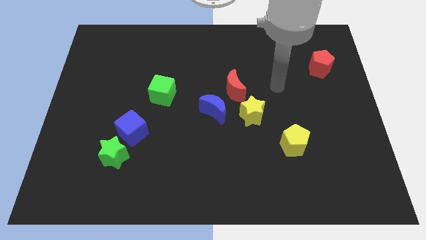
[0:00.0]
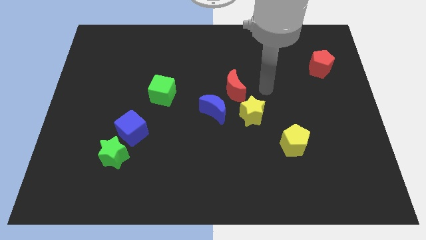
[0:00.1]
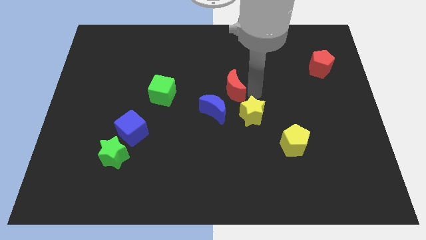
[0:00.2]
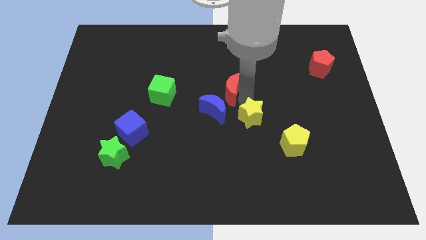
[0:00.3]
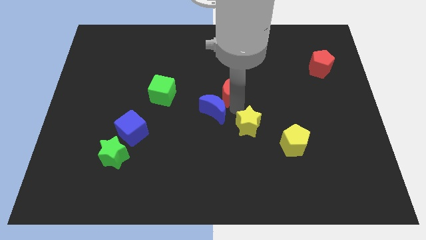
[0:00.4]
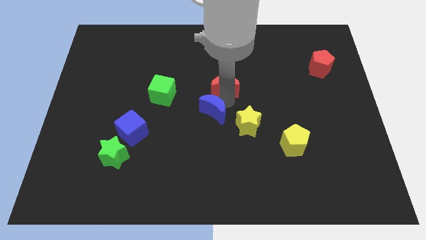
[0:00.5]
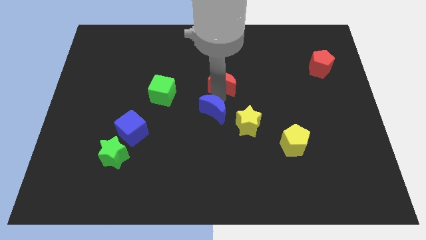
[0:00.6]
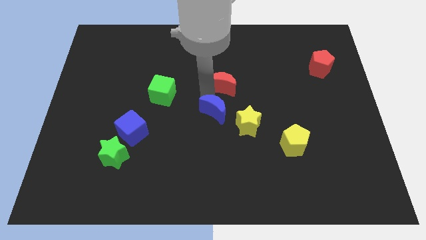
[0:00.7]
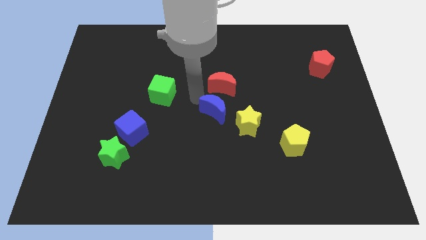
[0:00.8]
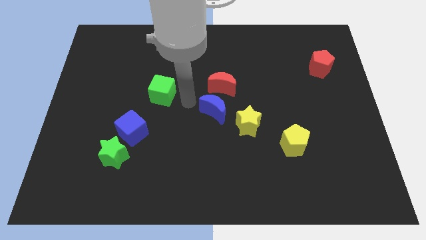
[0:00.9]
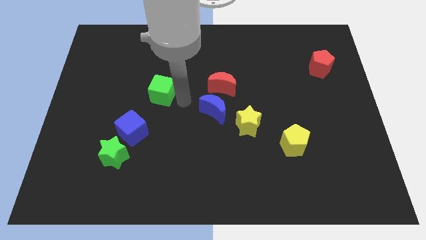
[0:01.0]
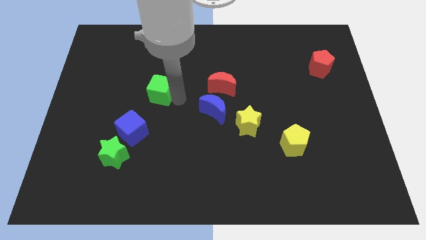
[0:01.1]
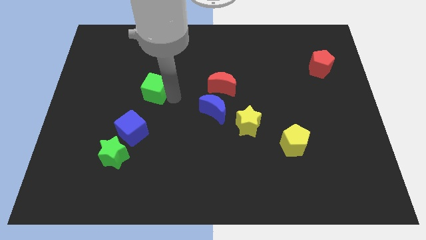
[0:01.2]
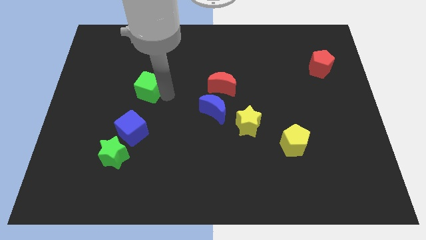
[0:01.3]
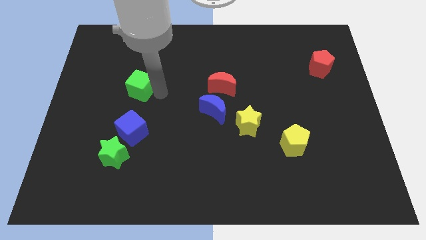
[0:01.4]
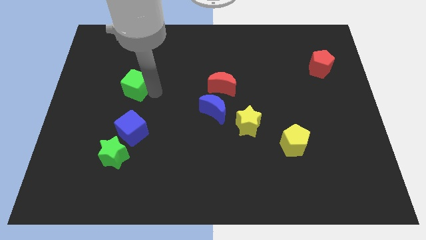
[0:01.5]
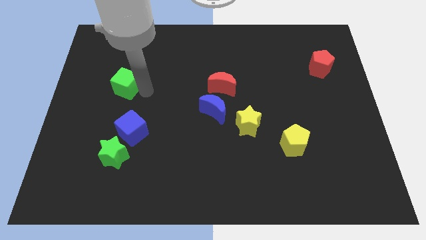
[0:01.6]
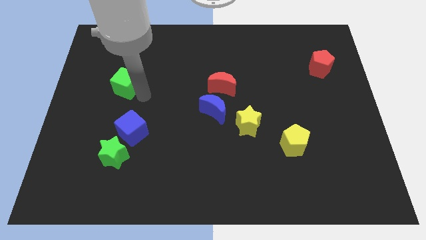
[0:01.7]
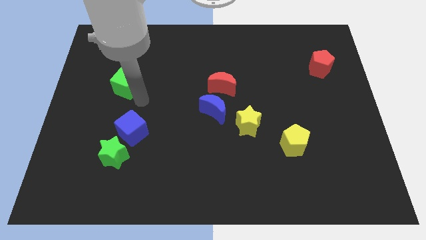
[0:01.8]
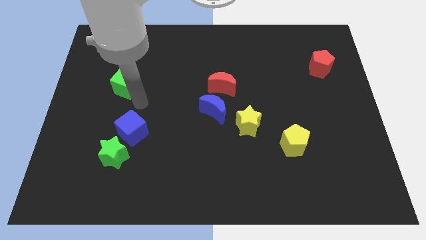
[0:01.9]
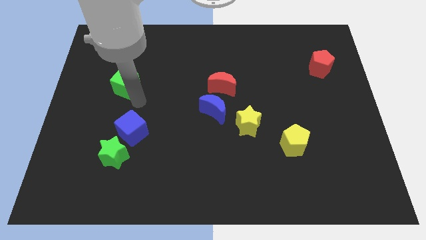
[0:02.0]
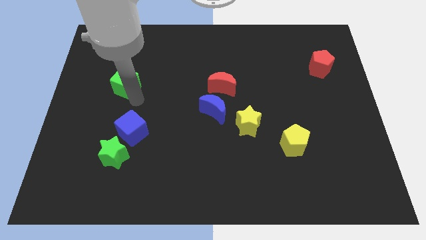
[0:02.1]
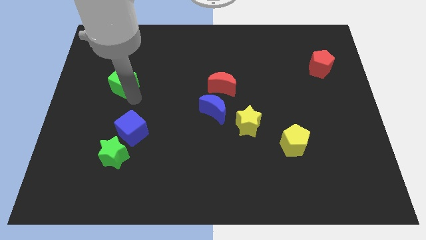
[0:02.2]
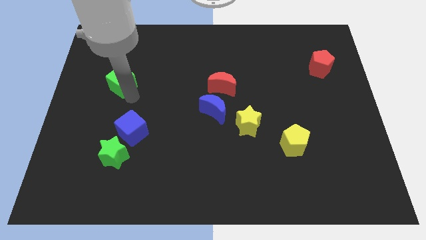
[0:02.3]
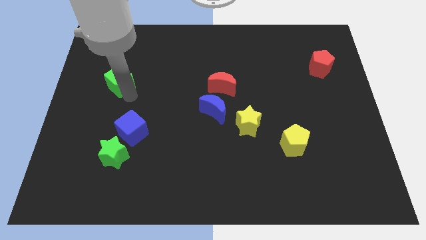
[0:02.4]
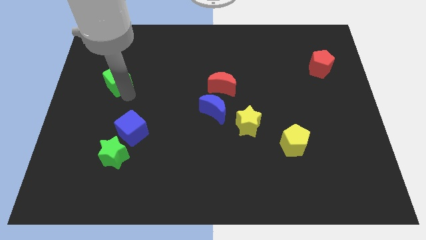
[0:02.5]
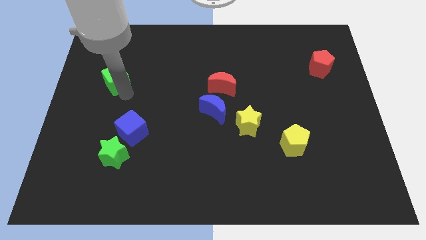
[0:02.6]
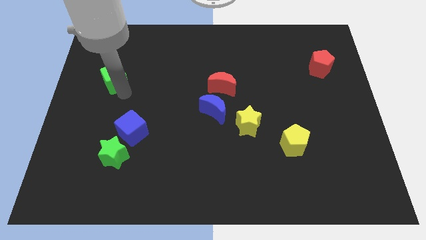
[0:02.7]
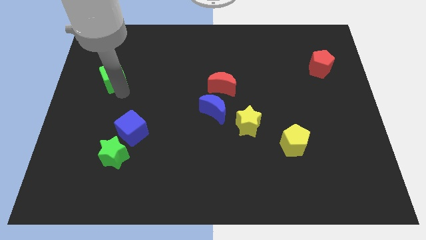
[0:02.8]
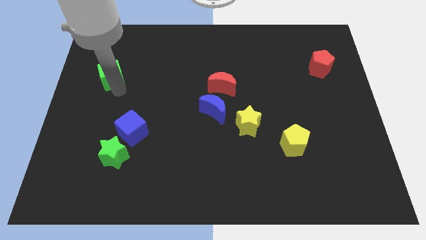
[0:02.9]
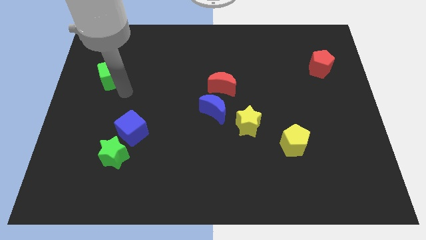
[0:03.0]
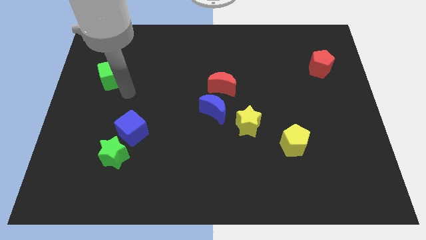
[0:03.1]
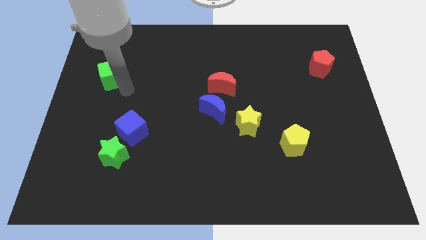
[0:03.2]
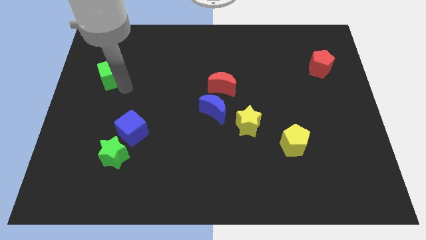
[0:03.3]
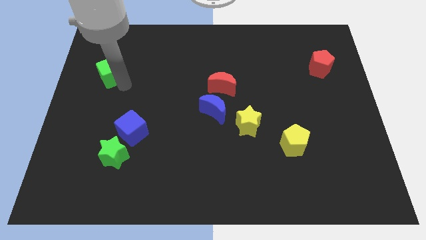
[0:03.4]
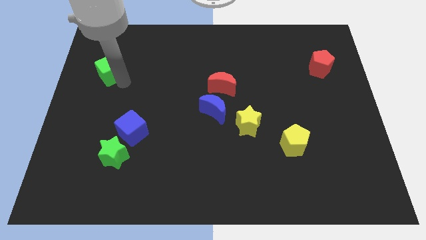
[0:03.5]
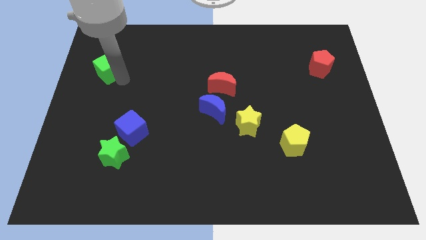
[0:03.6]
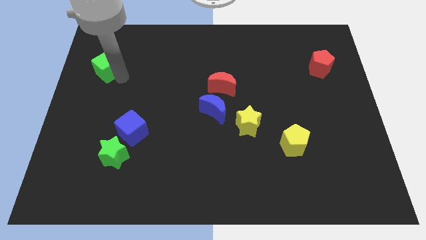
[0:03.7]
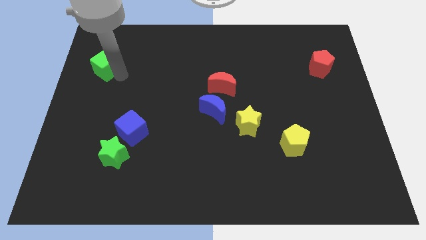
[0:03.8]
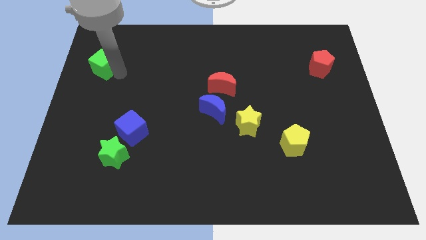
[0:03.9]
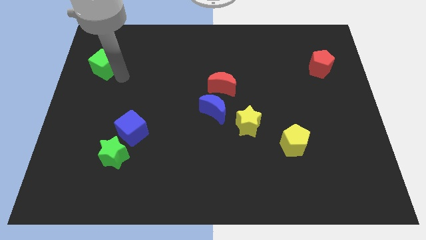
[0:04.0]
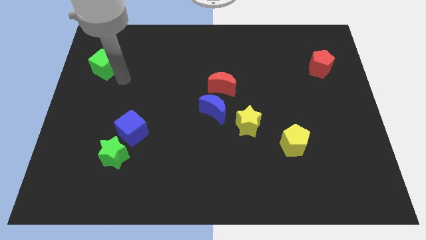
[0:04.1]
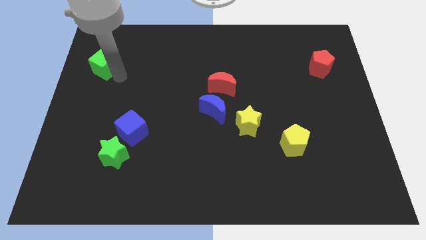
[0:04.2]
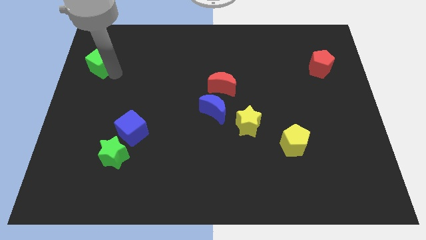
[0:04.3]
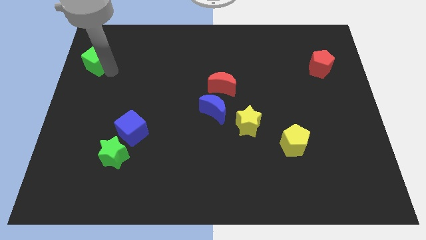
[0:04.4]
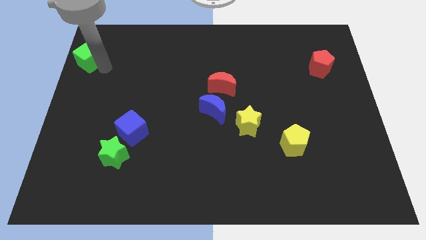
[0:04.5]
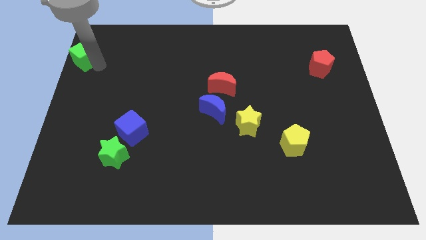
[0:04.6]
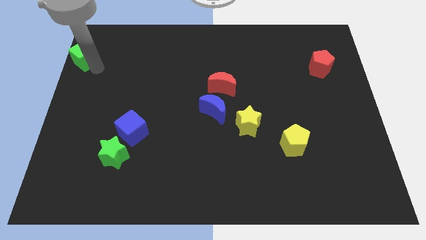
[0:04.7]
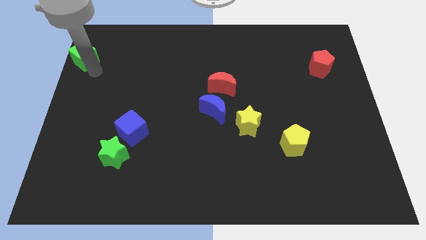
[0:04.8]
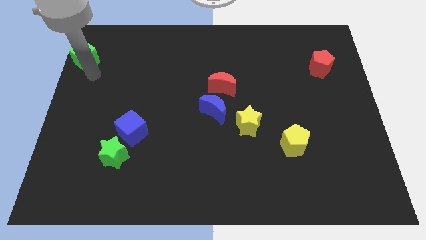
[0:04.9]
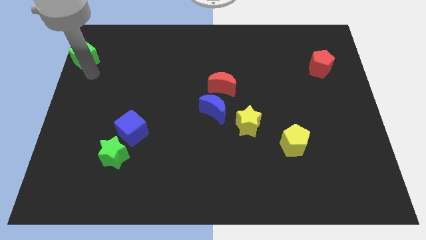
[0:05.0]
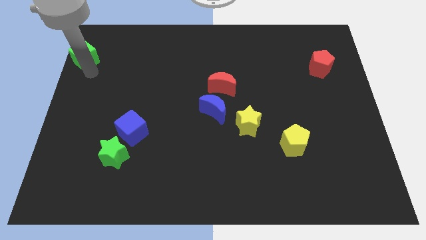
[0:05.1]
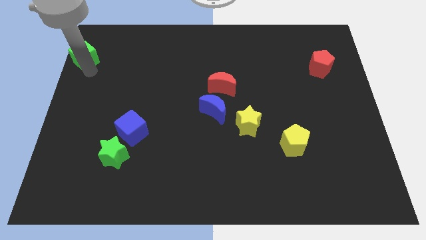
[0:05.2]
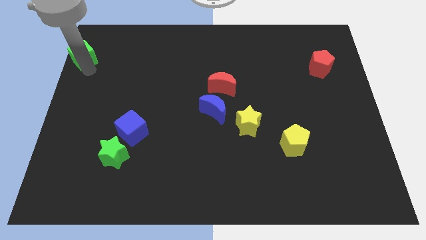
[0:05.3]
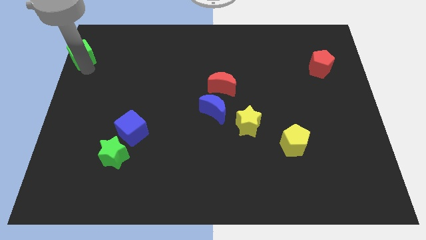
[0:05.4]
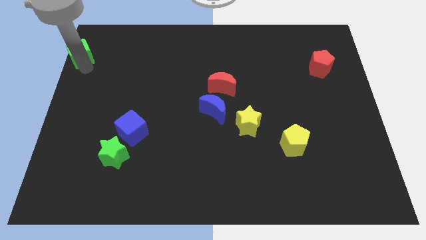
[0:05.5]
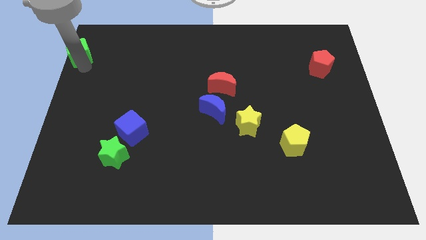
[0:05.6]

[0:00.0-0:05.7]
push the green cube to the top left

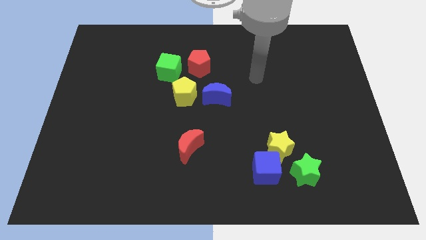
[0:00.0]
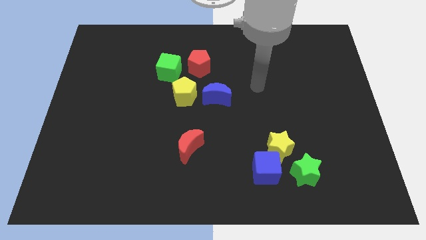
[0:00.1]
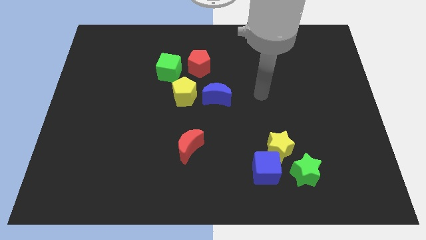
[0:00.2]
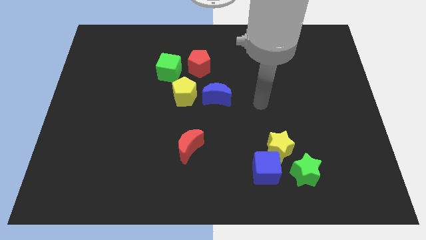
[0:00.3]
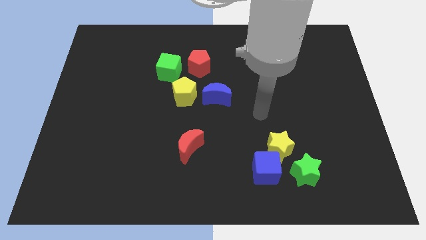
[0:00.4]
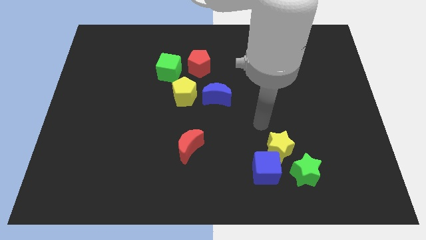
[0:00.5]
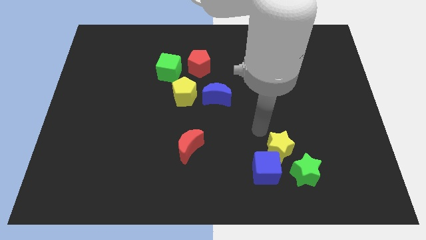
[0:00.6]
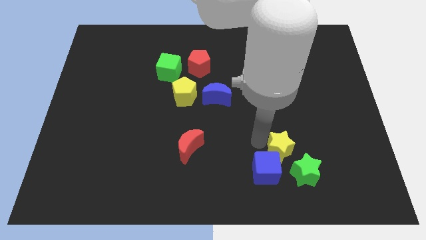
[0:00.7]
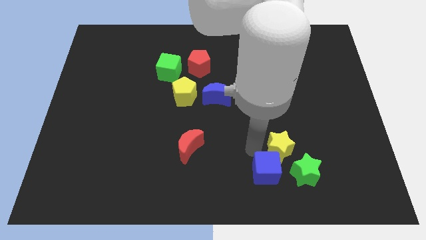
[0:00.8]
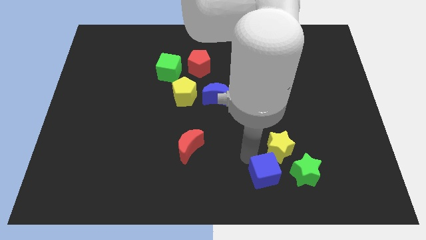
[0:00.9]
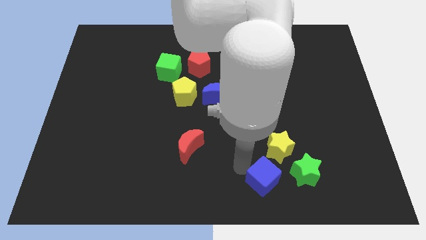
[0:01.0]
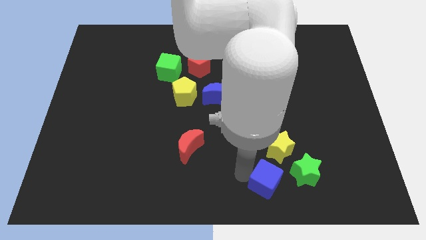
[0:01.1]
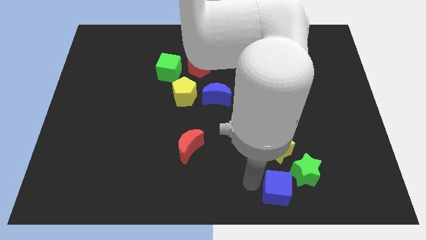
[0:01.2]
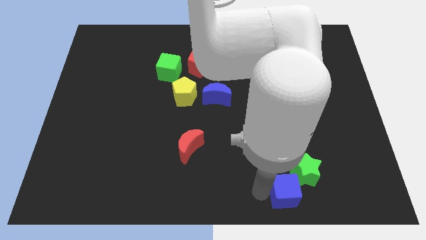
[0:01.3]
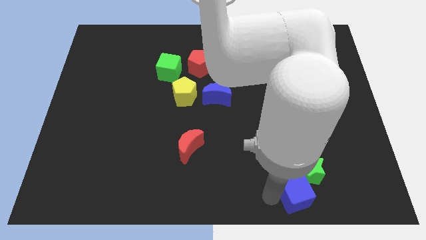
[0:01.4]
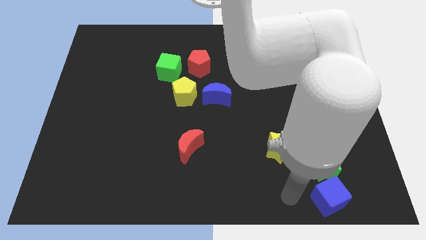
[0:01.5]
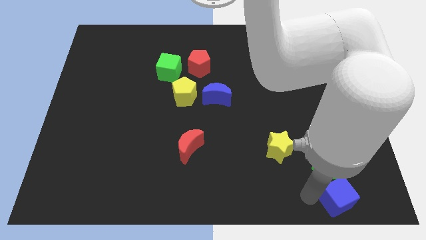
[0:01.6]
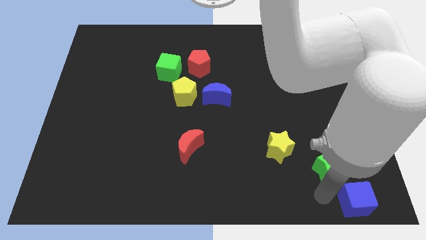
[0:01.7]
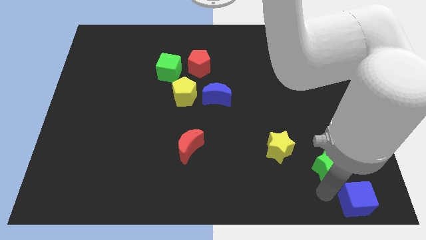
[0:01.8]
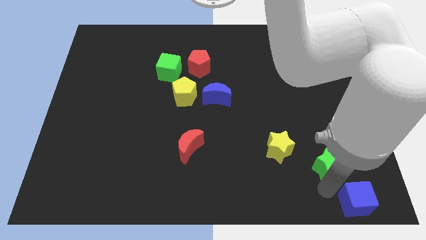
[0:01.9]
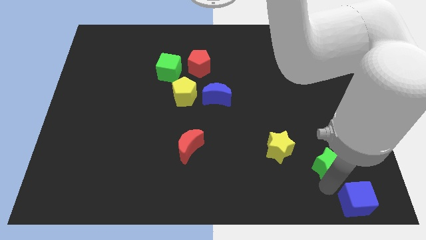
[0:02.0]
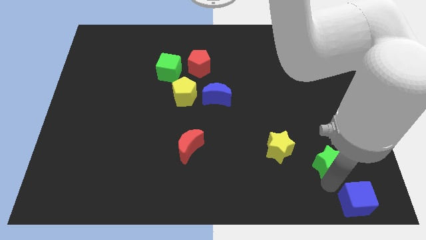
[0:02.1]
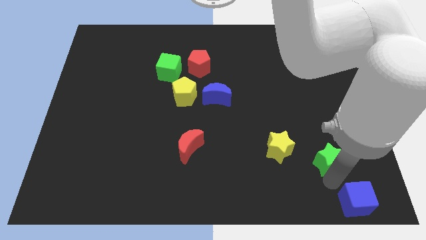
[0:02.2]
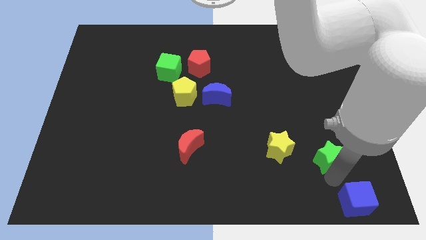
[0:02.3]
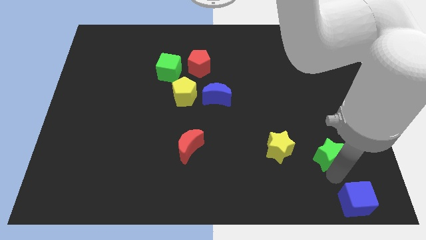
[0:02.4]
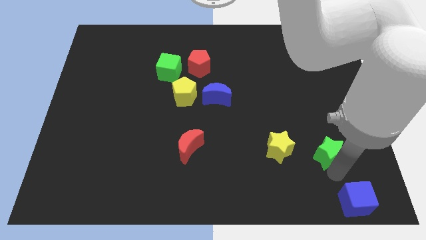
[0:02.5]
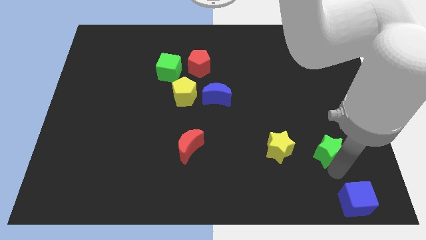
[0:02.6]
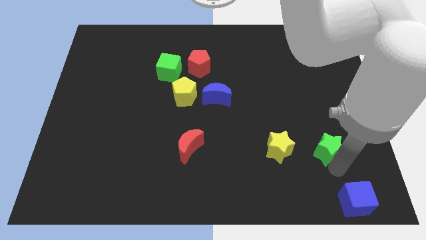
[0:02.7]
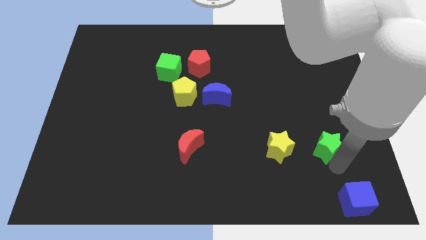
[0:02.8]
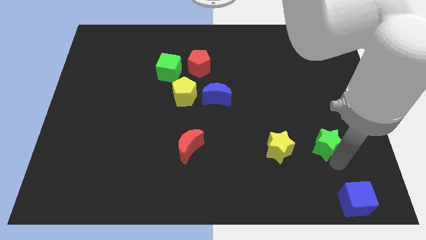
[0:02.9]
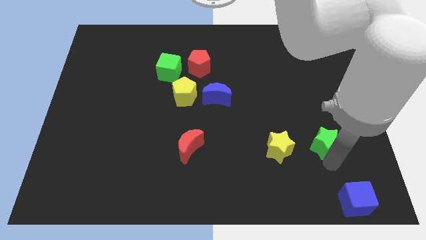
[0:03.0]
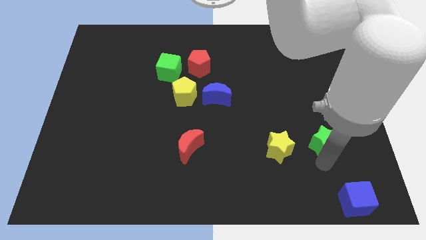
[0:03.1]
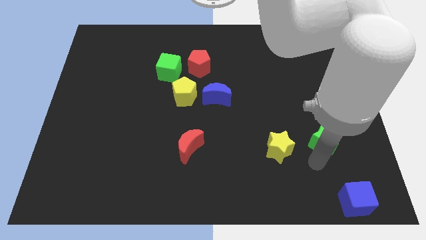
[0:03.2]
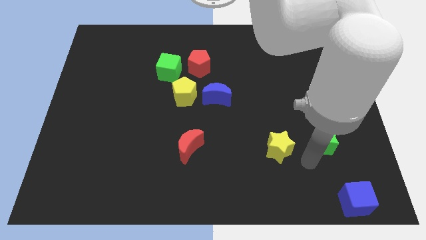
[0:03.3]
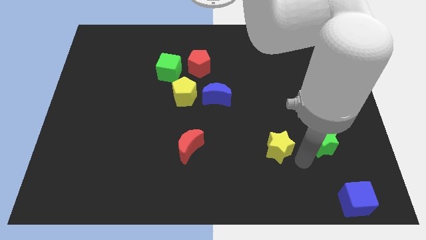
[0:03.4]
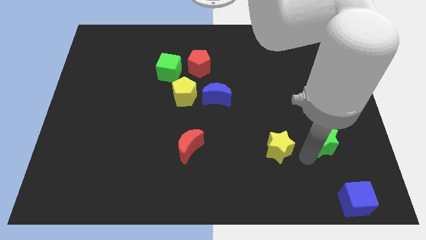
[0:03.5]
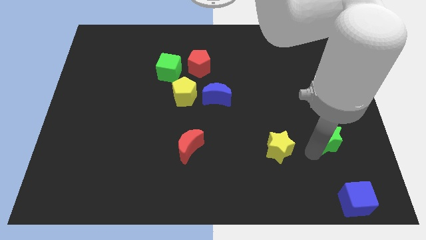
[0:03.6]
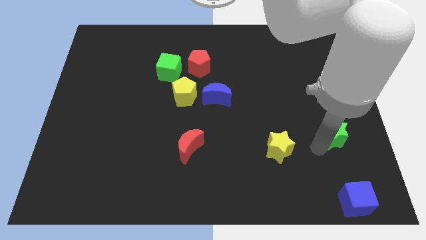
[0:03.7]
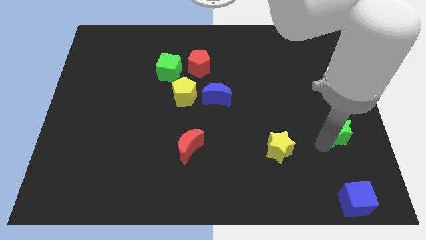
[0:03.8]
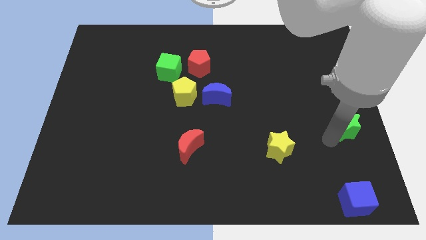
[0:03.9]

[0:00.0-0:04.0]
move the green star to the right side
